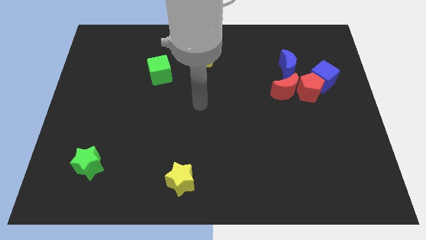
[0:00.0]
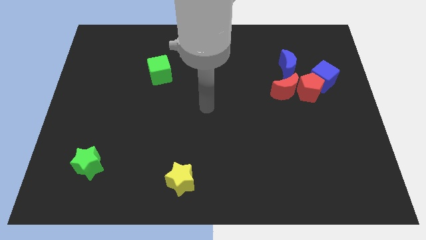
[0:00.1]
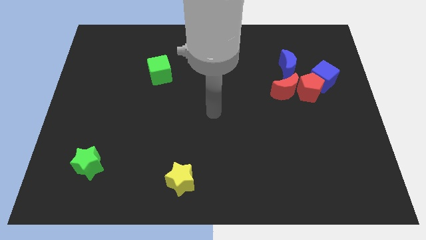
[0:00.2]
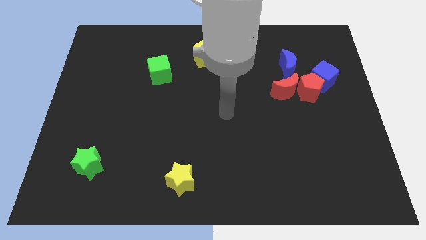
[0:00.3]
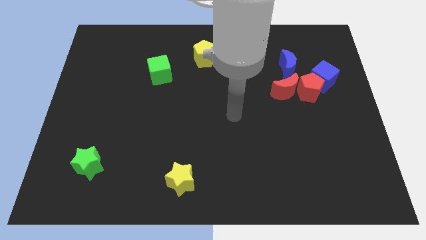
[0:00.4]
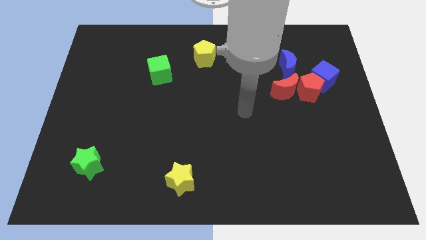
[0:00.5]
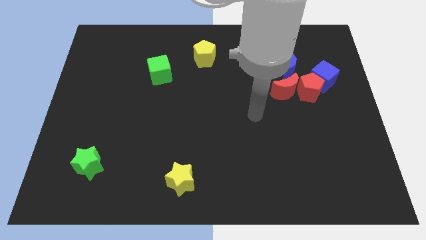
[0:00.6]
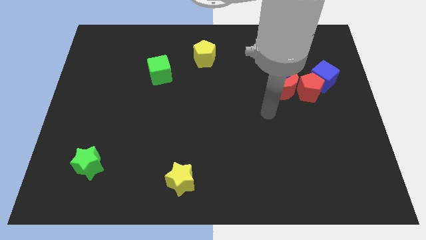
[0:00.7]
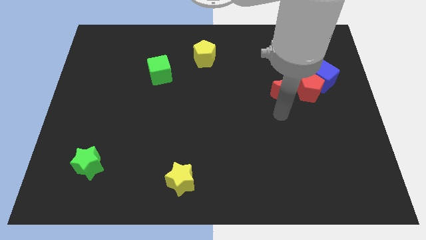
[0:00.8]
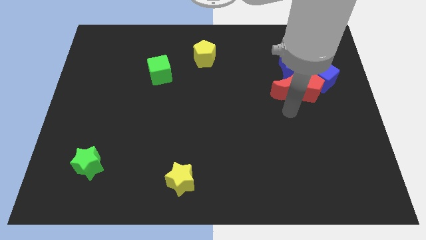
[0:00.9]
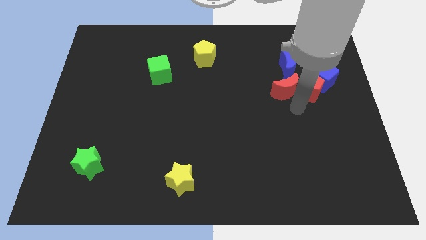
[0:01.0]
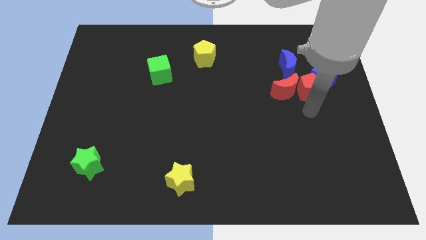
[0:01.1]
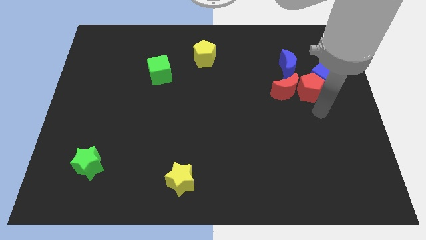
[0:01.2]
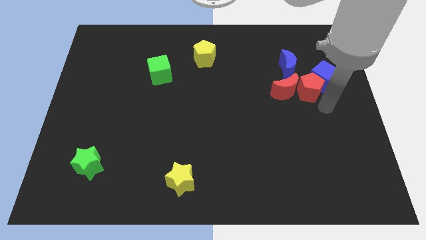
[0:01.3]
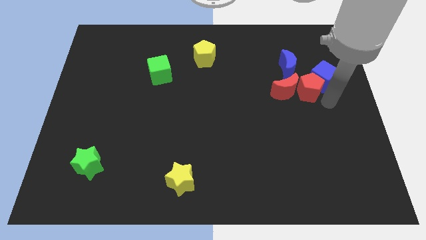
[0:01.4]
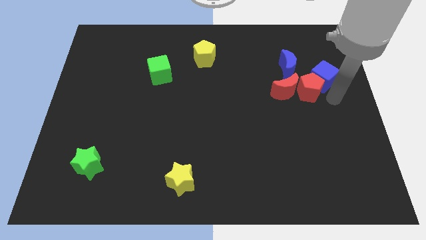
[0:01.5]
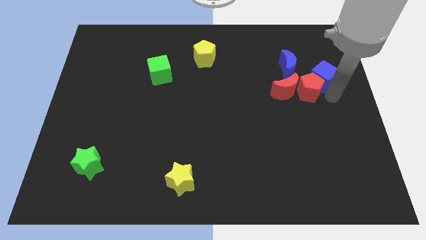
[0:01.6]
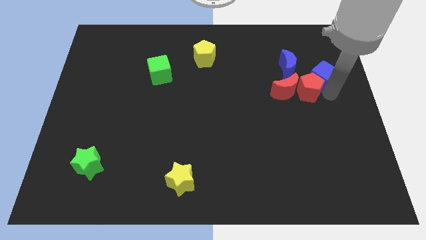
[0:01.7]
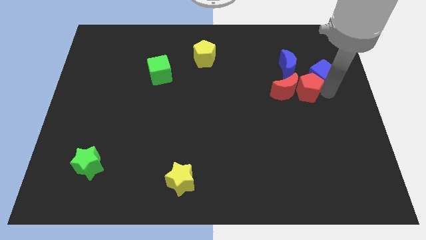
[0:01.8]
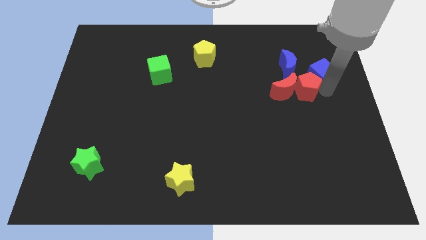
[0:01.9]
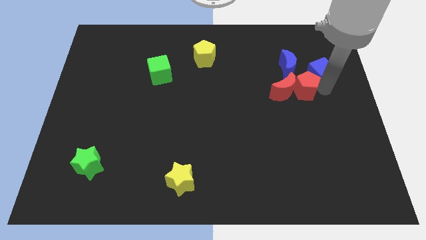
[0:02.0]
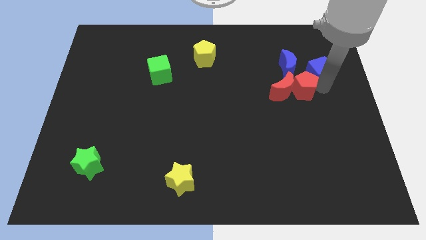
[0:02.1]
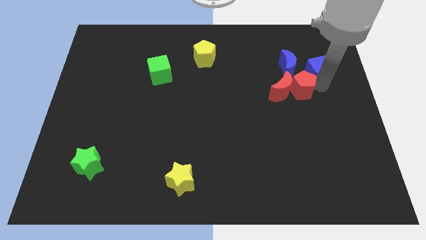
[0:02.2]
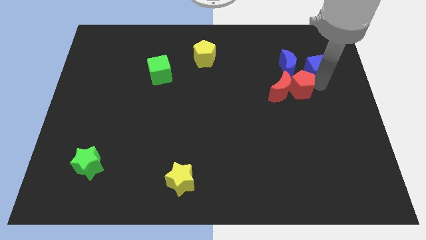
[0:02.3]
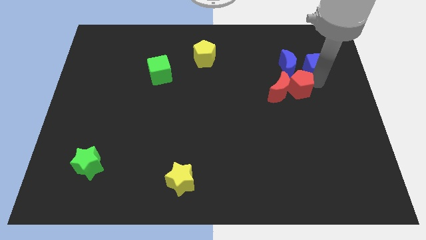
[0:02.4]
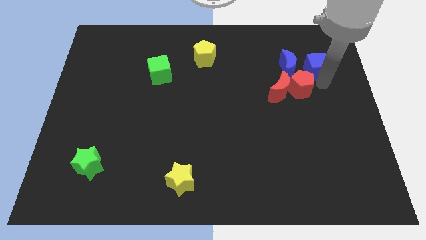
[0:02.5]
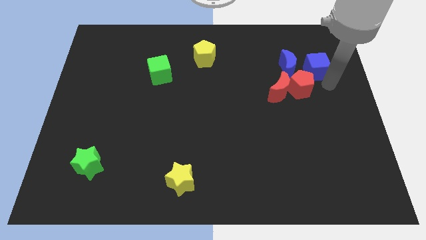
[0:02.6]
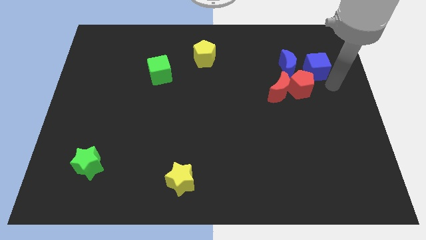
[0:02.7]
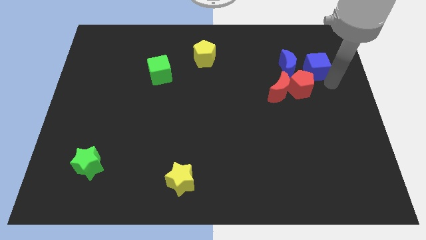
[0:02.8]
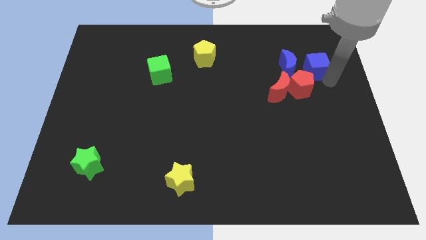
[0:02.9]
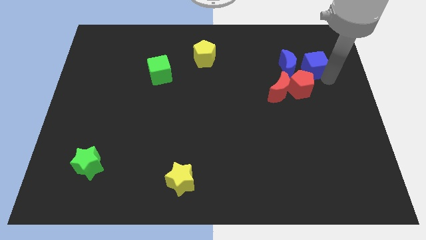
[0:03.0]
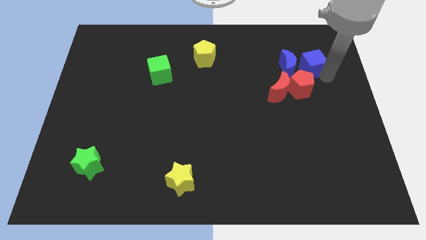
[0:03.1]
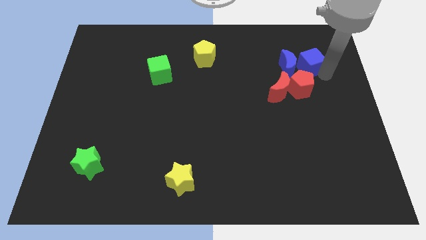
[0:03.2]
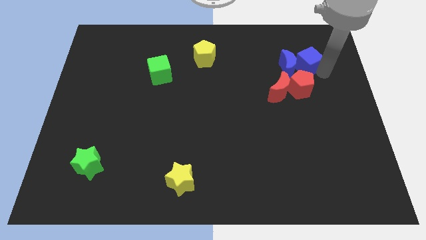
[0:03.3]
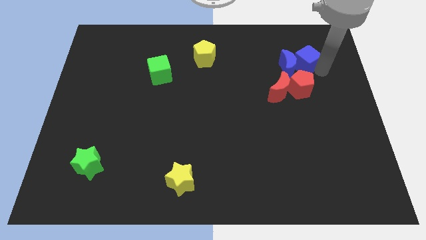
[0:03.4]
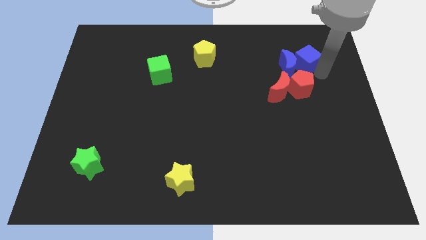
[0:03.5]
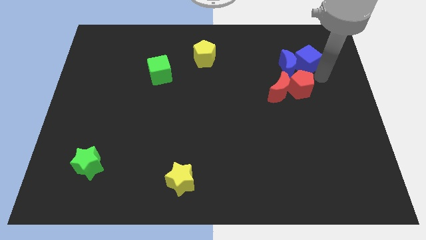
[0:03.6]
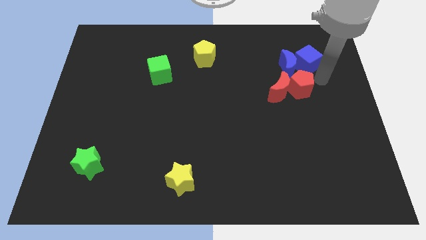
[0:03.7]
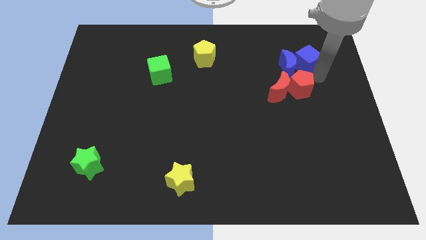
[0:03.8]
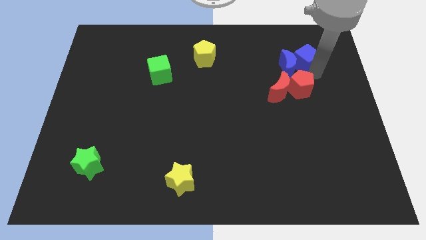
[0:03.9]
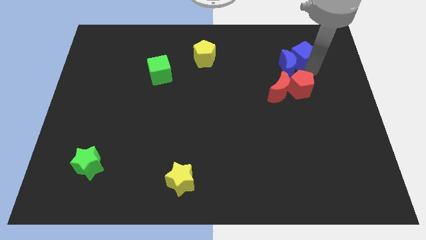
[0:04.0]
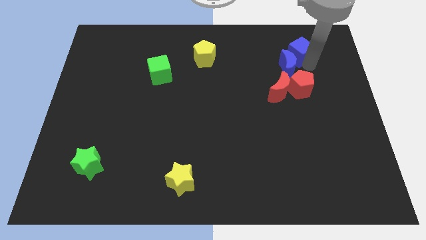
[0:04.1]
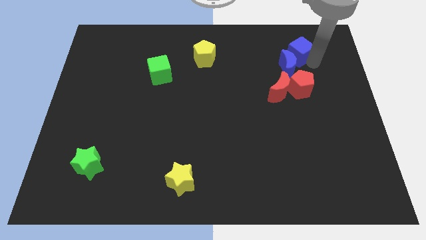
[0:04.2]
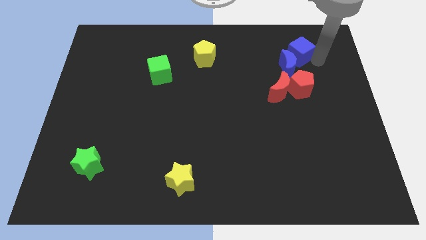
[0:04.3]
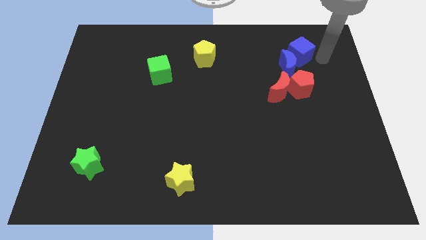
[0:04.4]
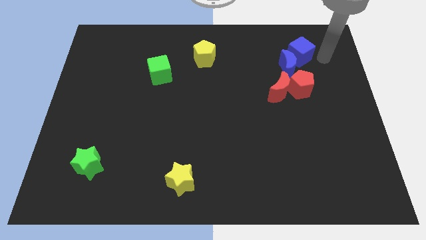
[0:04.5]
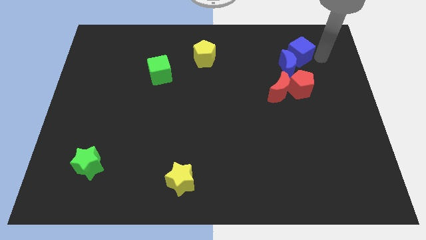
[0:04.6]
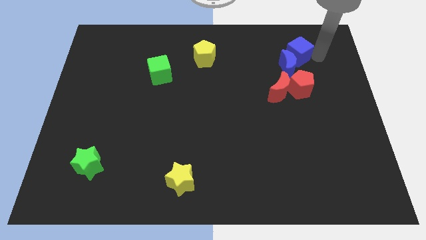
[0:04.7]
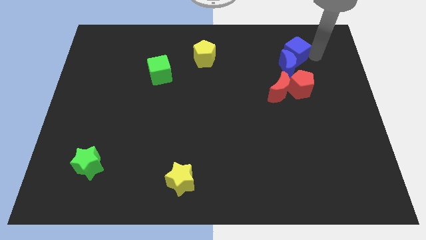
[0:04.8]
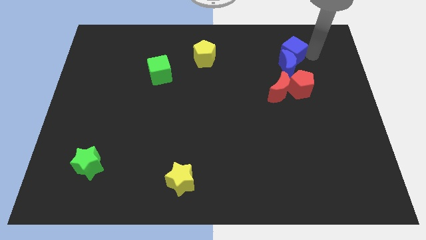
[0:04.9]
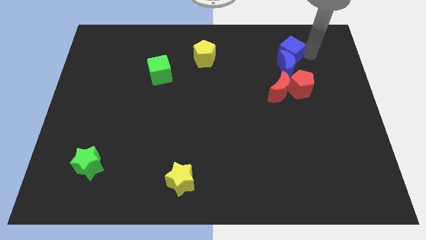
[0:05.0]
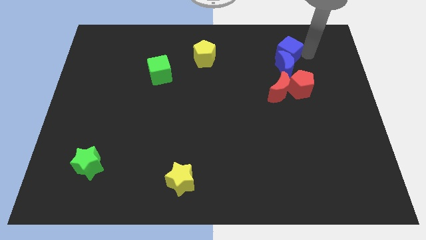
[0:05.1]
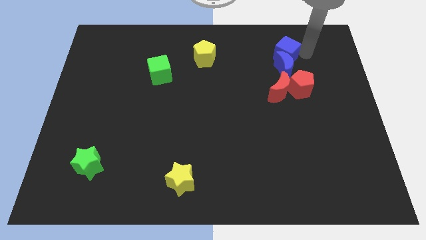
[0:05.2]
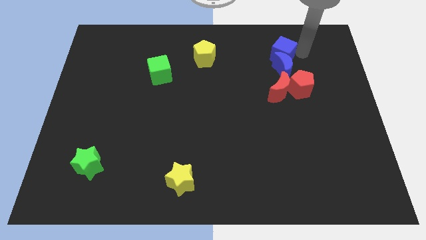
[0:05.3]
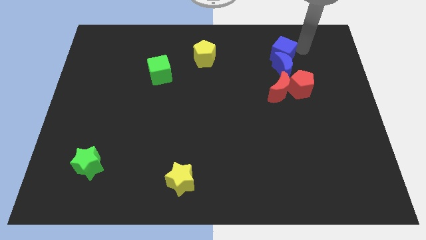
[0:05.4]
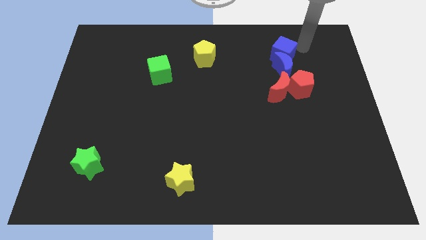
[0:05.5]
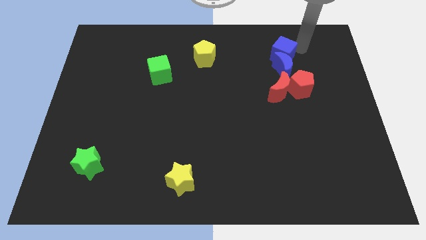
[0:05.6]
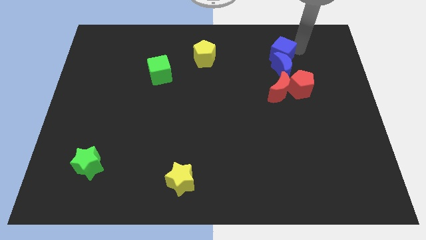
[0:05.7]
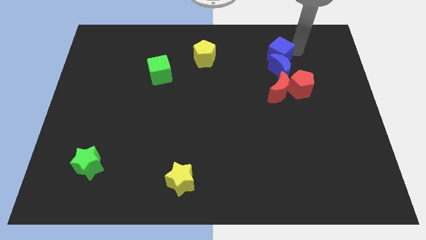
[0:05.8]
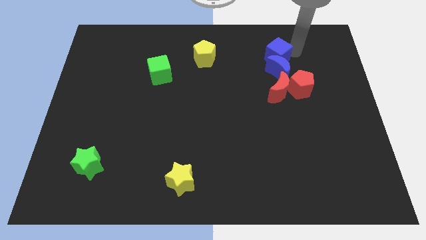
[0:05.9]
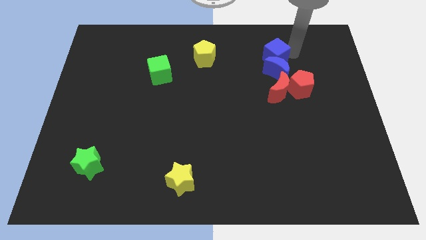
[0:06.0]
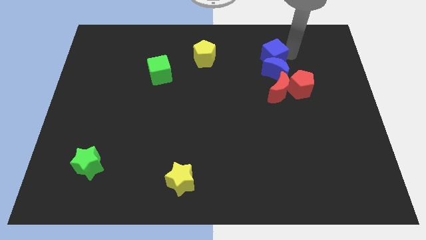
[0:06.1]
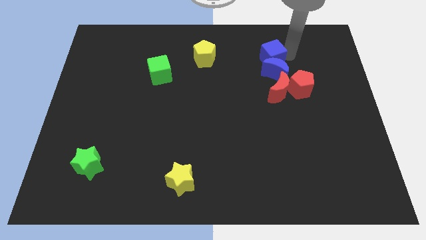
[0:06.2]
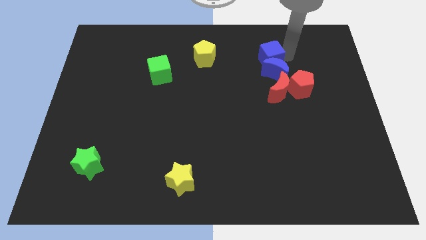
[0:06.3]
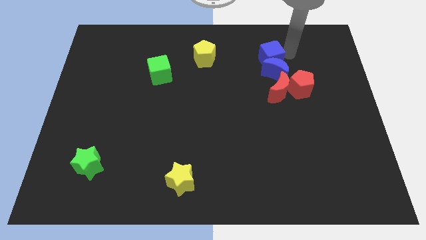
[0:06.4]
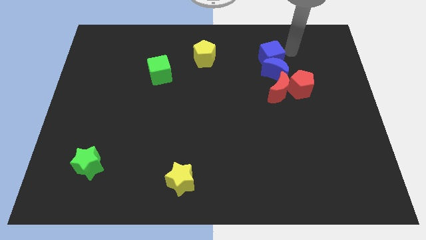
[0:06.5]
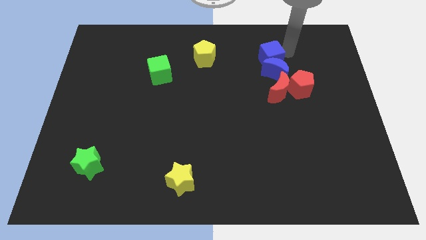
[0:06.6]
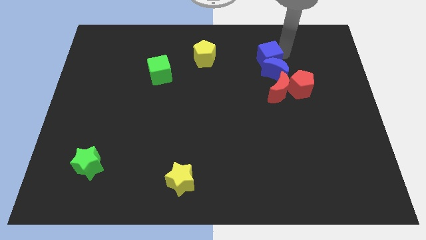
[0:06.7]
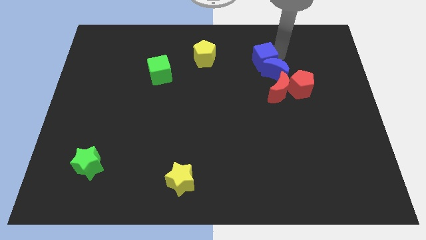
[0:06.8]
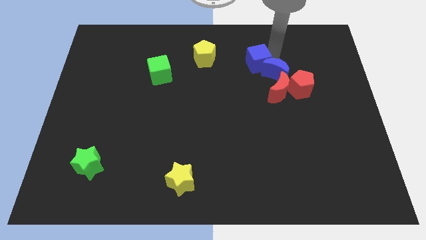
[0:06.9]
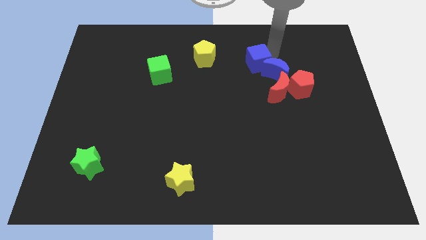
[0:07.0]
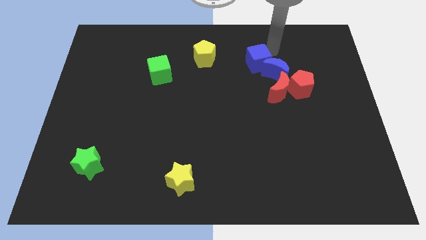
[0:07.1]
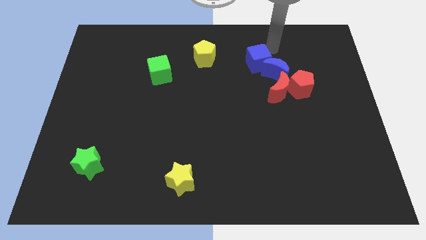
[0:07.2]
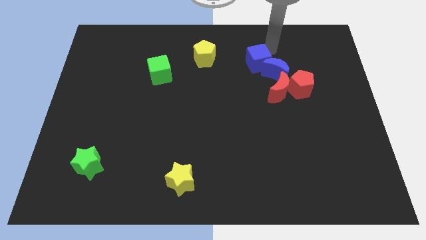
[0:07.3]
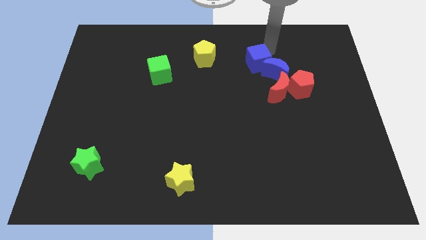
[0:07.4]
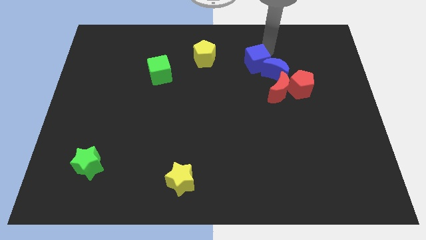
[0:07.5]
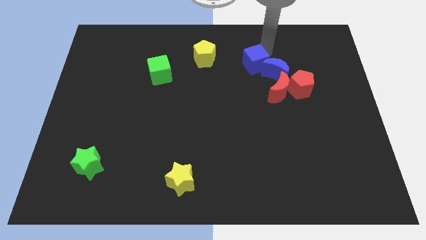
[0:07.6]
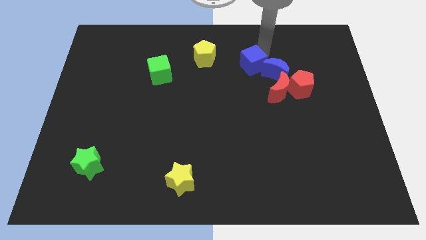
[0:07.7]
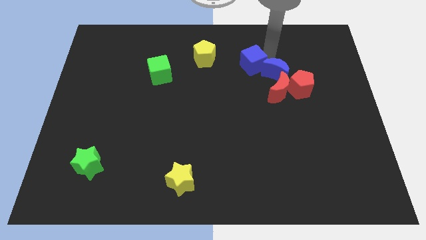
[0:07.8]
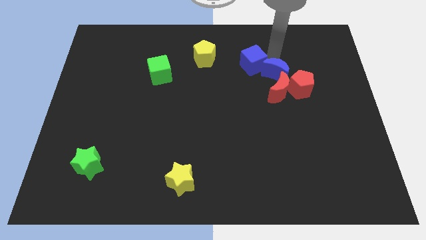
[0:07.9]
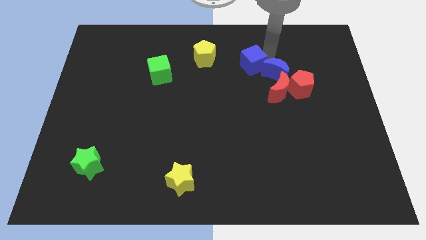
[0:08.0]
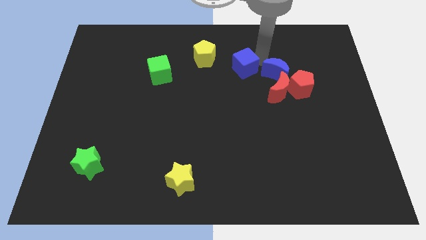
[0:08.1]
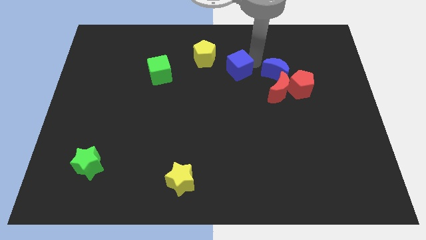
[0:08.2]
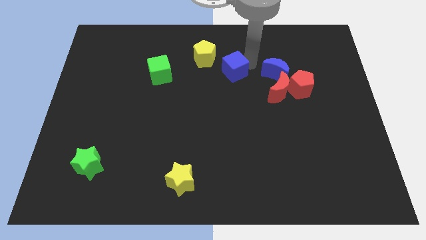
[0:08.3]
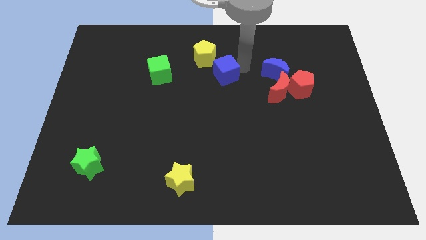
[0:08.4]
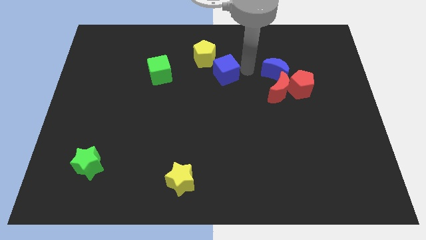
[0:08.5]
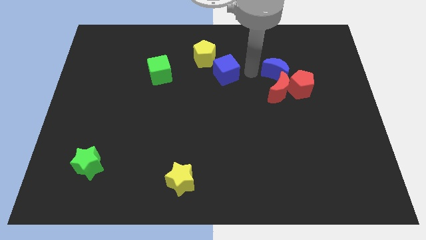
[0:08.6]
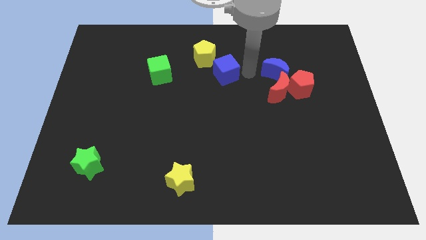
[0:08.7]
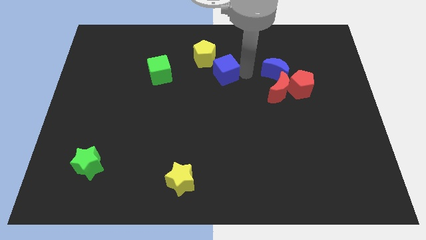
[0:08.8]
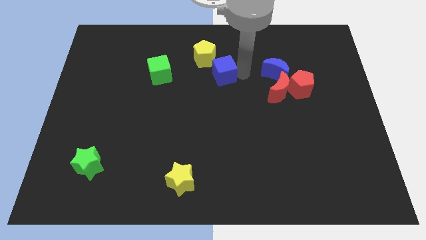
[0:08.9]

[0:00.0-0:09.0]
push the blue cube just right of the green cube
